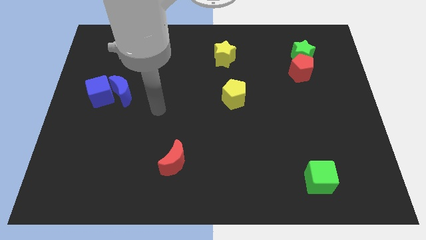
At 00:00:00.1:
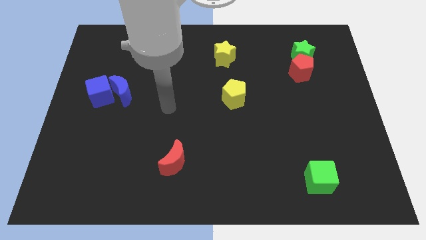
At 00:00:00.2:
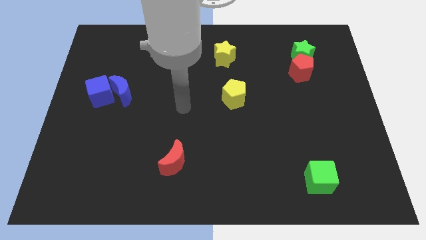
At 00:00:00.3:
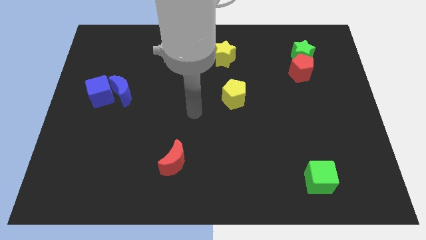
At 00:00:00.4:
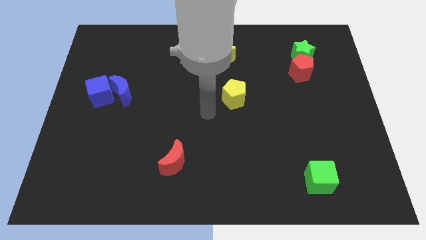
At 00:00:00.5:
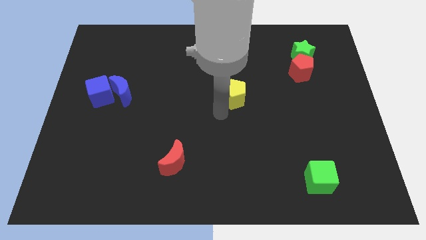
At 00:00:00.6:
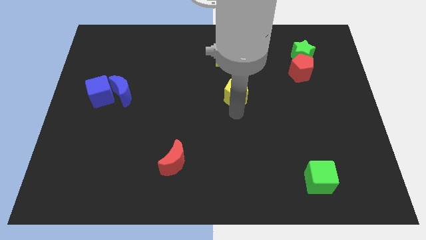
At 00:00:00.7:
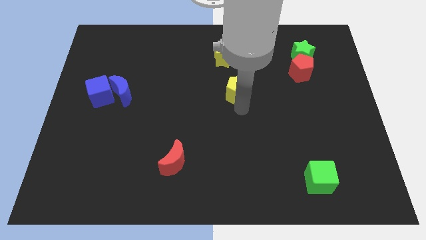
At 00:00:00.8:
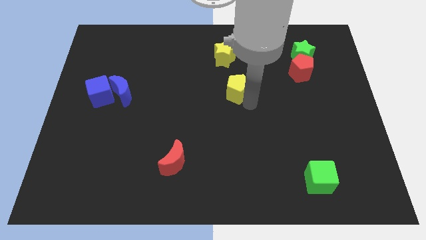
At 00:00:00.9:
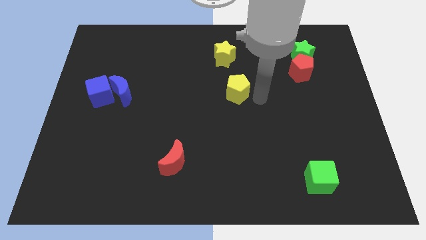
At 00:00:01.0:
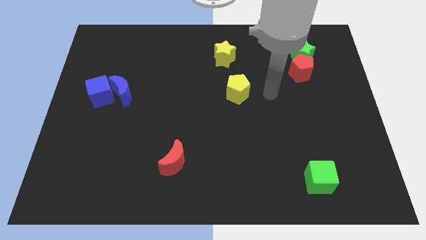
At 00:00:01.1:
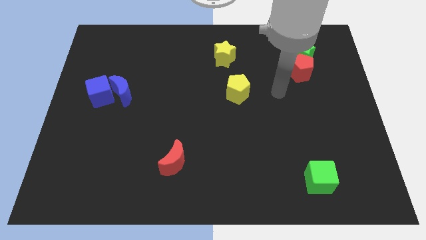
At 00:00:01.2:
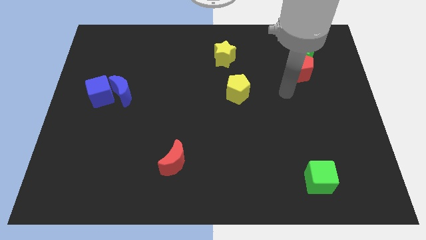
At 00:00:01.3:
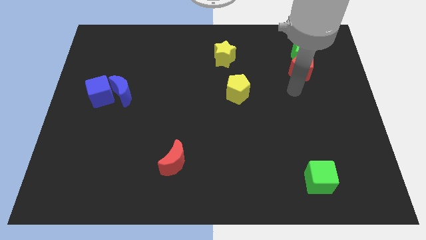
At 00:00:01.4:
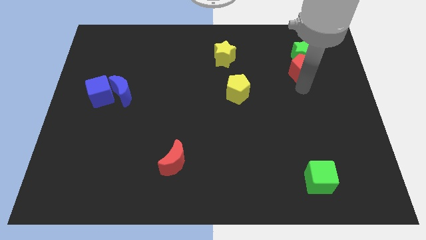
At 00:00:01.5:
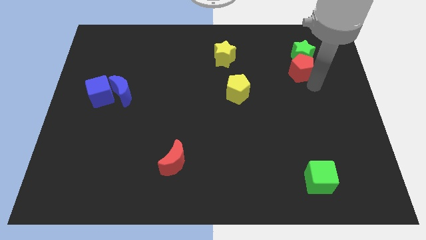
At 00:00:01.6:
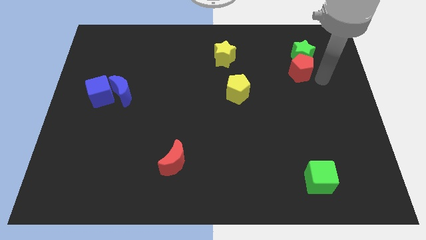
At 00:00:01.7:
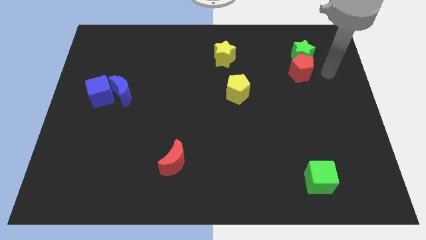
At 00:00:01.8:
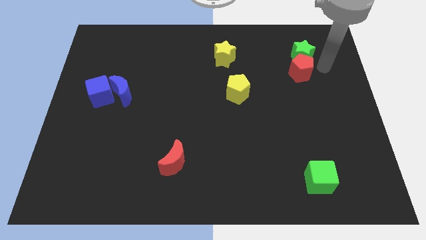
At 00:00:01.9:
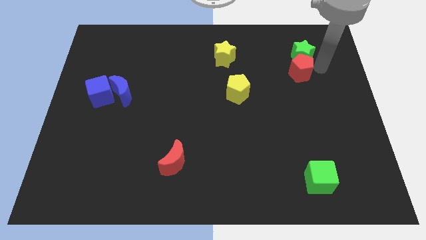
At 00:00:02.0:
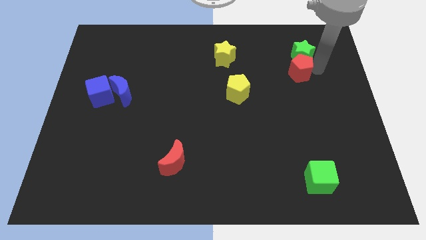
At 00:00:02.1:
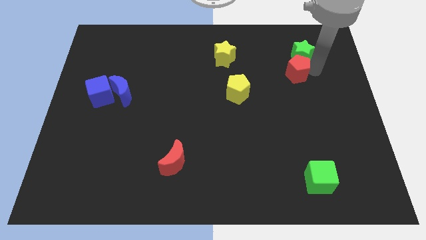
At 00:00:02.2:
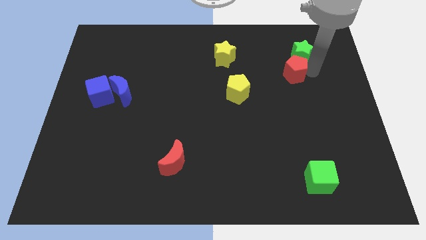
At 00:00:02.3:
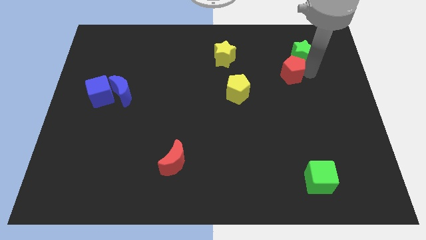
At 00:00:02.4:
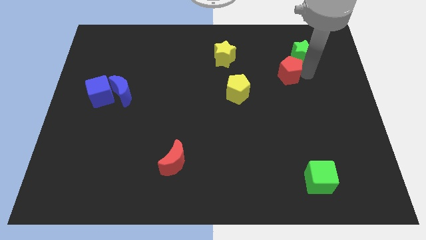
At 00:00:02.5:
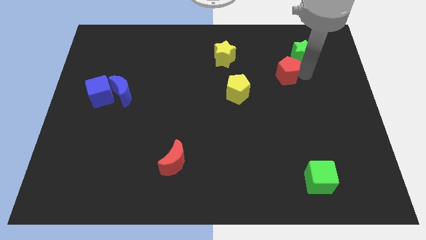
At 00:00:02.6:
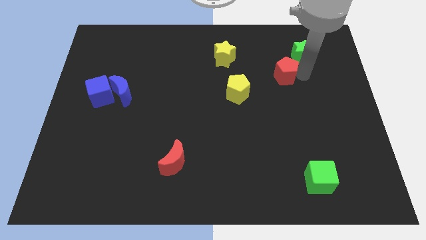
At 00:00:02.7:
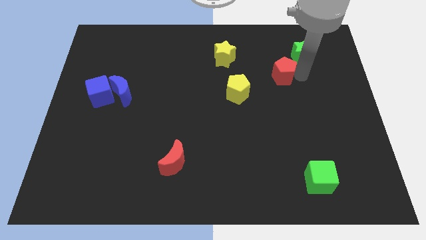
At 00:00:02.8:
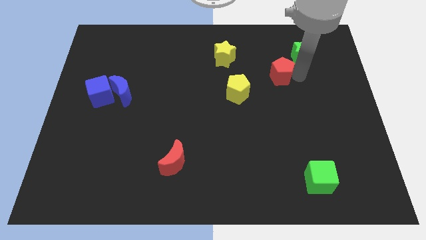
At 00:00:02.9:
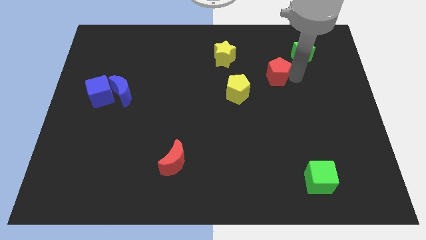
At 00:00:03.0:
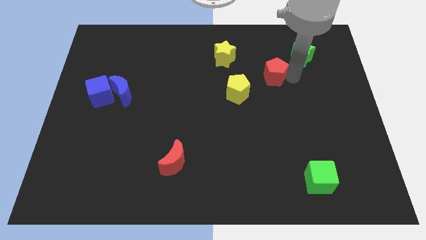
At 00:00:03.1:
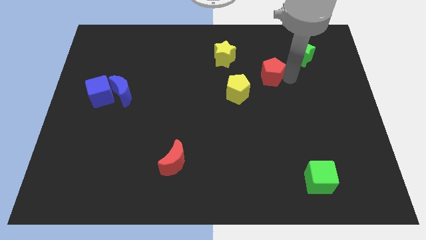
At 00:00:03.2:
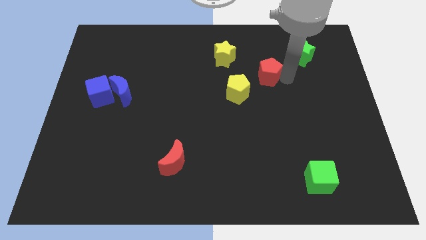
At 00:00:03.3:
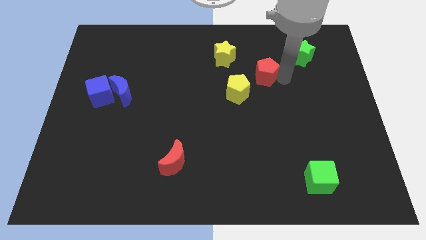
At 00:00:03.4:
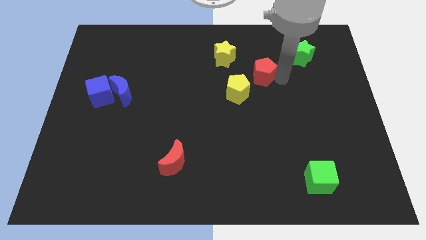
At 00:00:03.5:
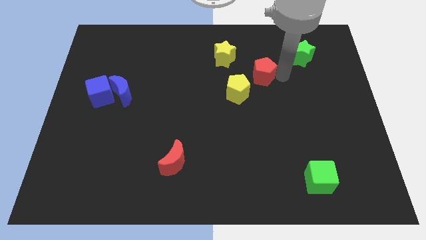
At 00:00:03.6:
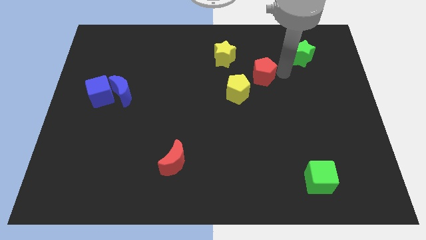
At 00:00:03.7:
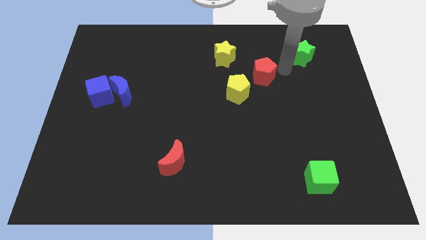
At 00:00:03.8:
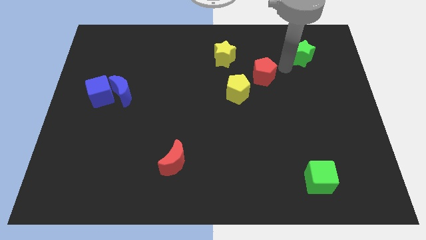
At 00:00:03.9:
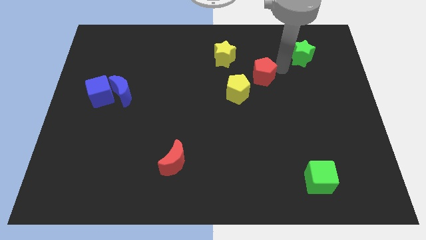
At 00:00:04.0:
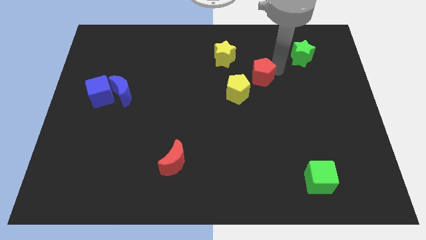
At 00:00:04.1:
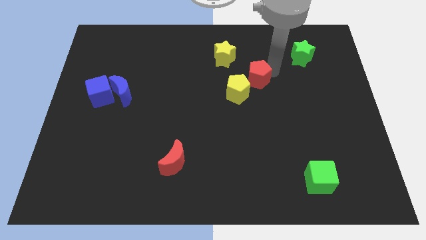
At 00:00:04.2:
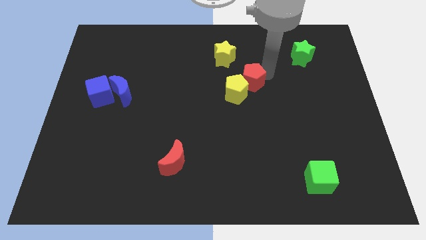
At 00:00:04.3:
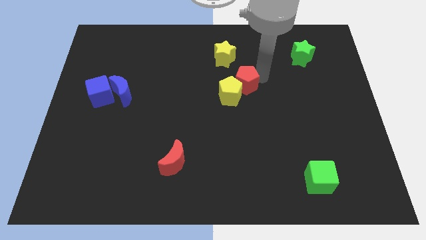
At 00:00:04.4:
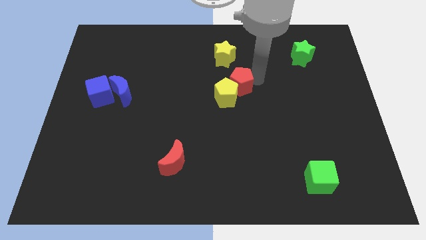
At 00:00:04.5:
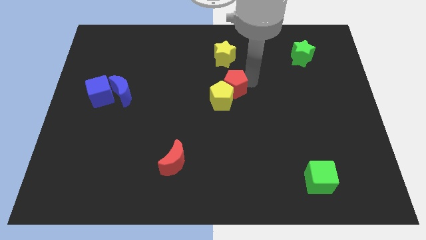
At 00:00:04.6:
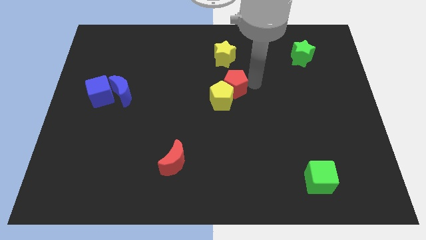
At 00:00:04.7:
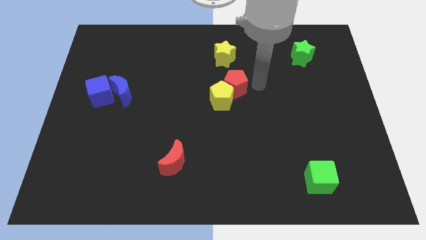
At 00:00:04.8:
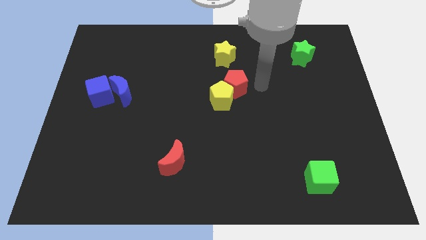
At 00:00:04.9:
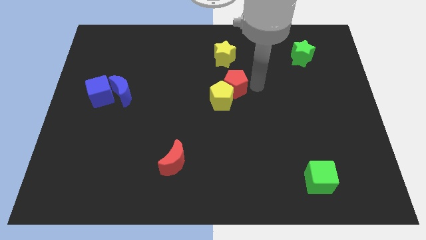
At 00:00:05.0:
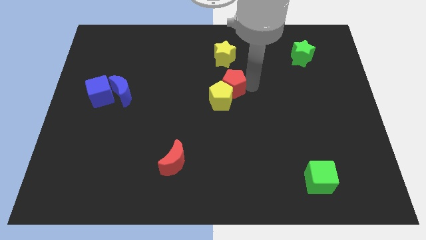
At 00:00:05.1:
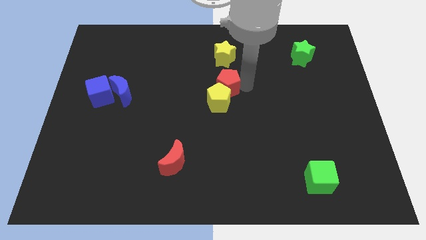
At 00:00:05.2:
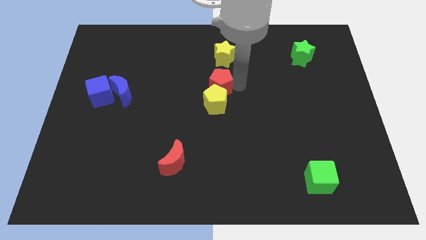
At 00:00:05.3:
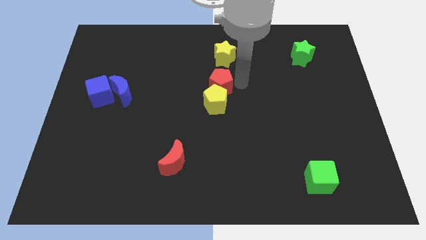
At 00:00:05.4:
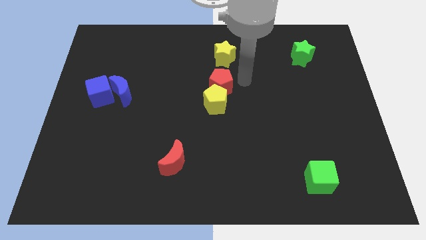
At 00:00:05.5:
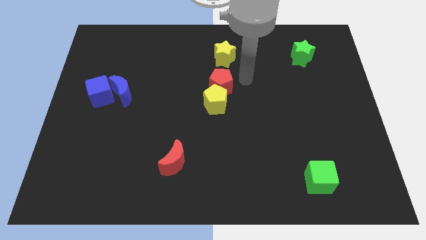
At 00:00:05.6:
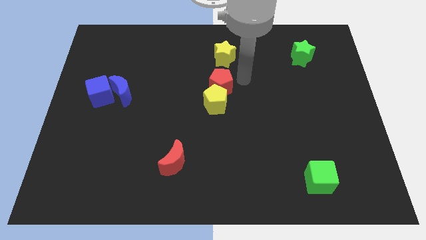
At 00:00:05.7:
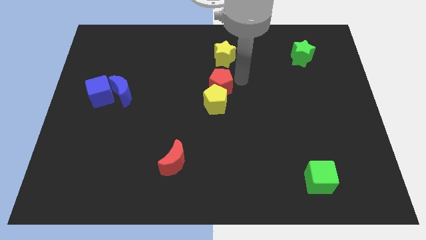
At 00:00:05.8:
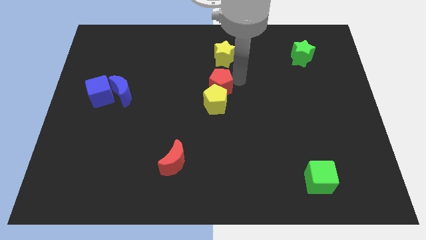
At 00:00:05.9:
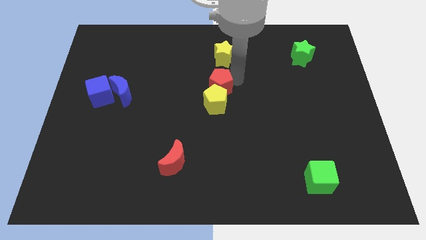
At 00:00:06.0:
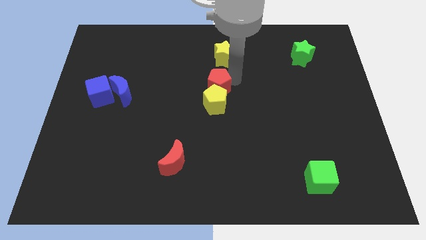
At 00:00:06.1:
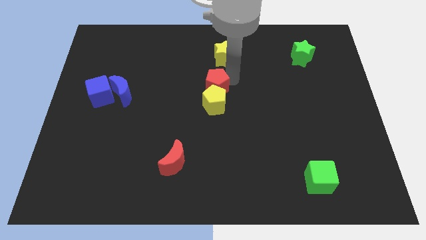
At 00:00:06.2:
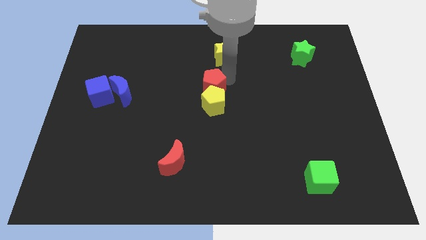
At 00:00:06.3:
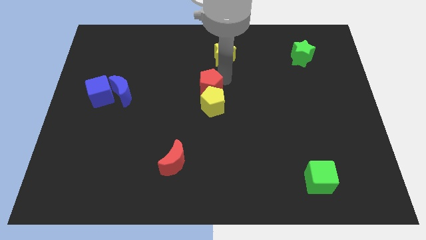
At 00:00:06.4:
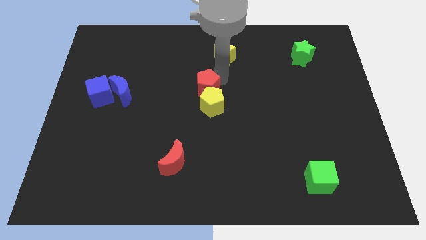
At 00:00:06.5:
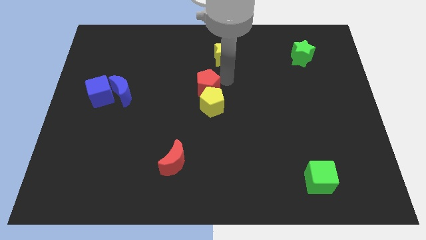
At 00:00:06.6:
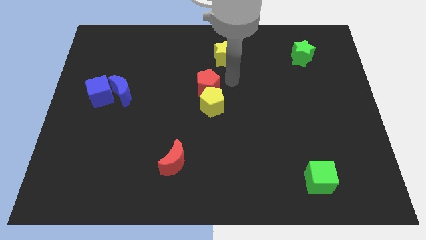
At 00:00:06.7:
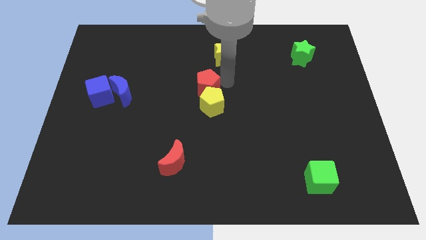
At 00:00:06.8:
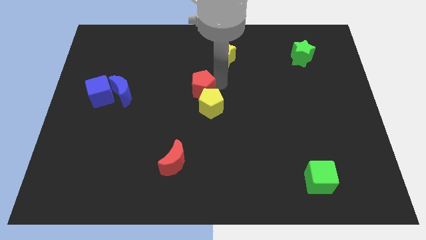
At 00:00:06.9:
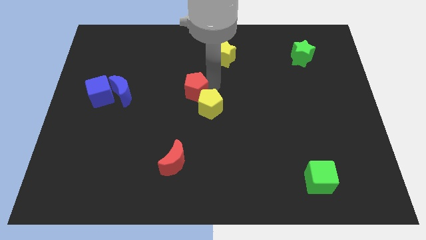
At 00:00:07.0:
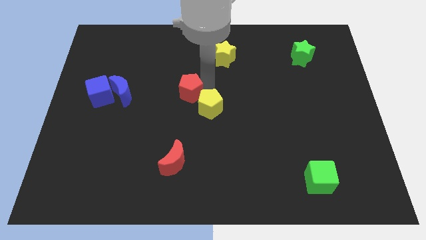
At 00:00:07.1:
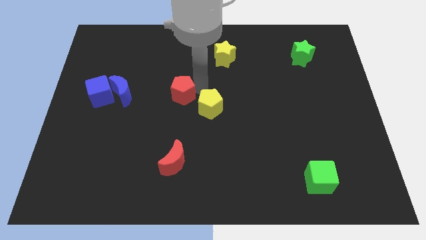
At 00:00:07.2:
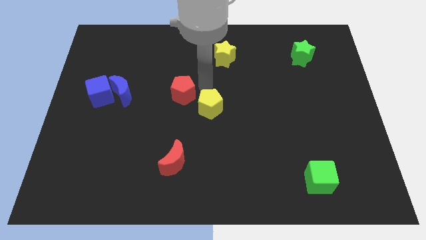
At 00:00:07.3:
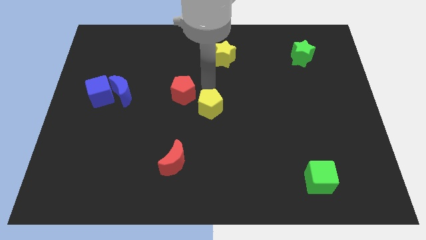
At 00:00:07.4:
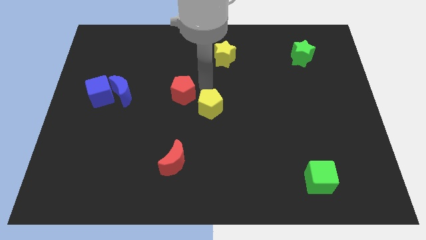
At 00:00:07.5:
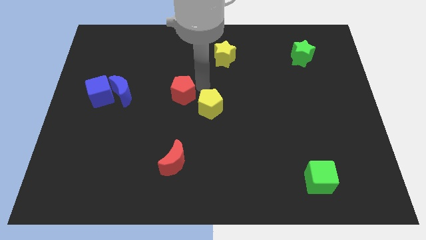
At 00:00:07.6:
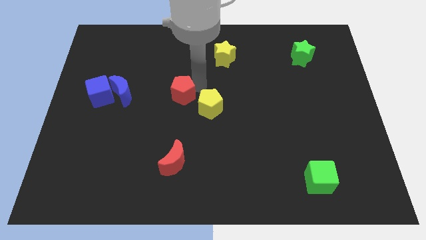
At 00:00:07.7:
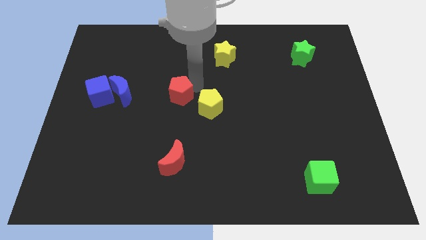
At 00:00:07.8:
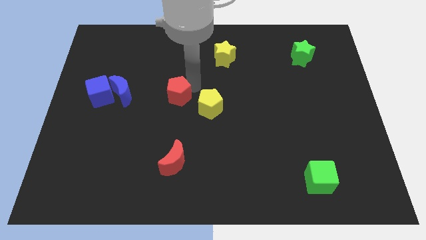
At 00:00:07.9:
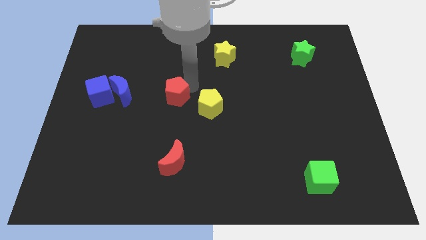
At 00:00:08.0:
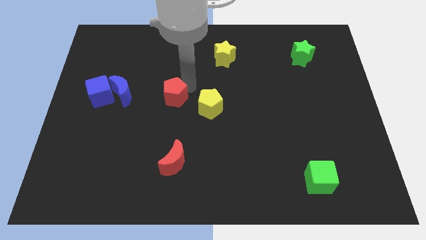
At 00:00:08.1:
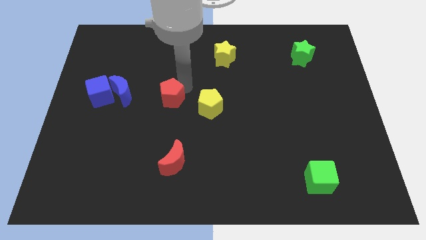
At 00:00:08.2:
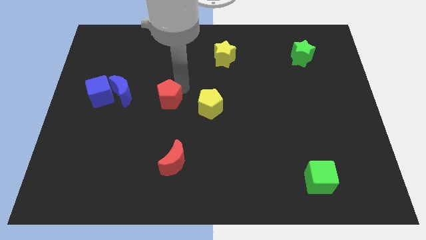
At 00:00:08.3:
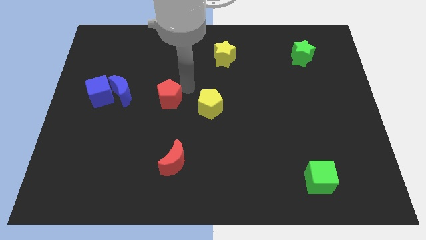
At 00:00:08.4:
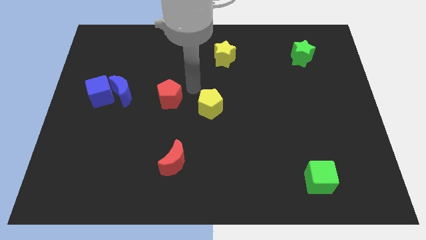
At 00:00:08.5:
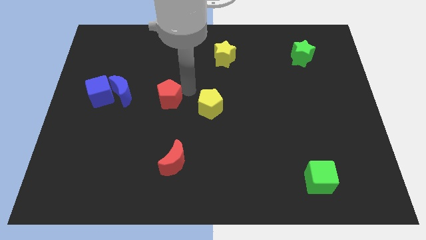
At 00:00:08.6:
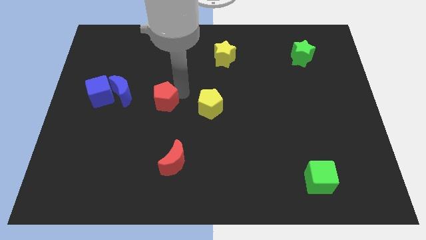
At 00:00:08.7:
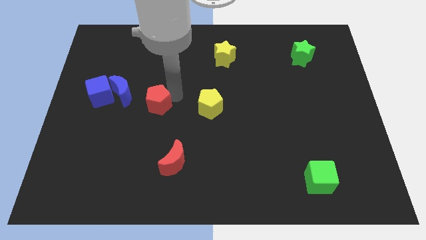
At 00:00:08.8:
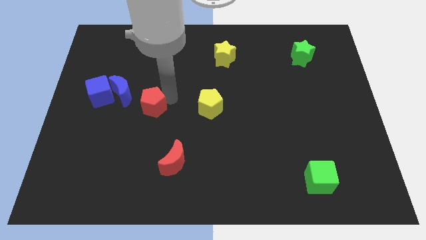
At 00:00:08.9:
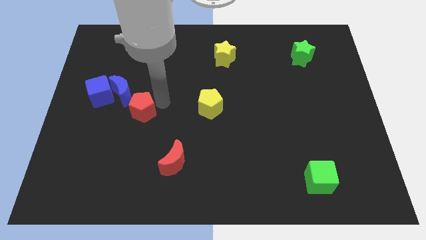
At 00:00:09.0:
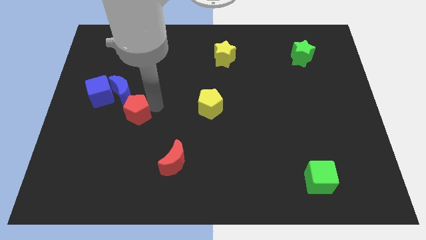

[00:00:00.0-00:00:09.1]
move the red pentagon to the bottom right of the blue cube
